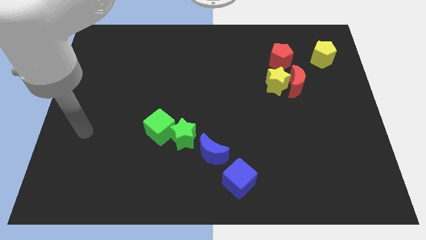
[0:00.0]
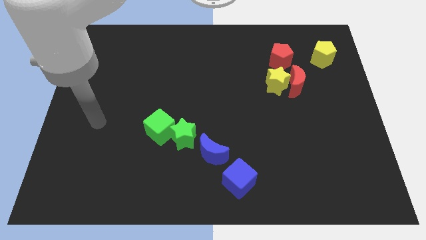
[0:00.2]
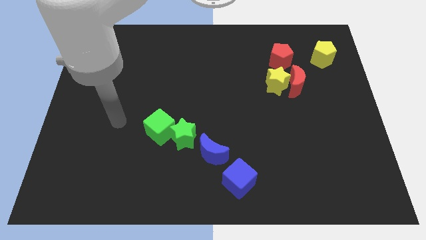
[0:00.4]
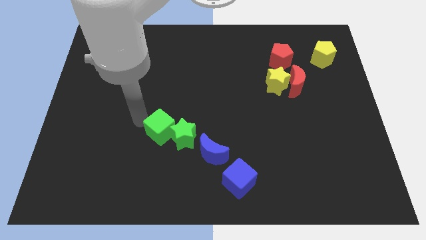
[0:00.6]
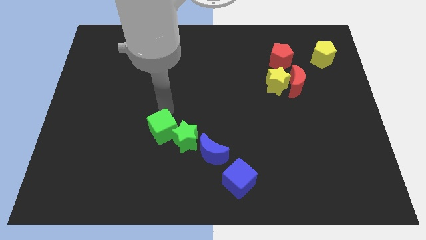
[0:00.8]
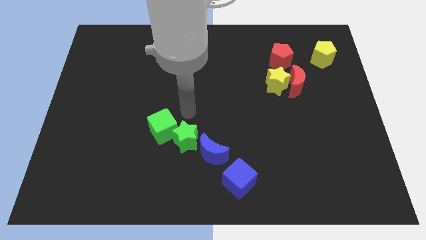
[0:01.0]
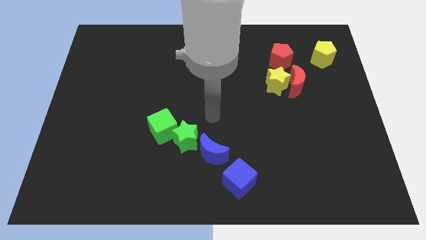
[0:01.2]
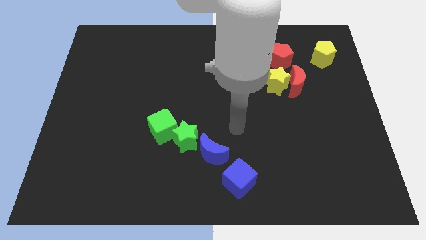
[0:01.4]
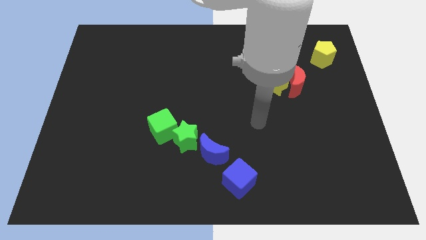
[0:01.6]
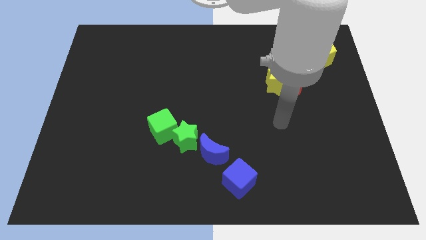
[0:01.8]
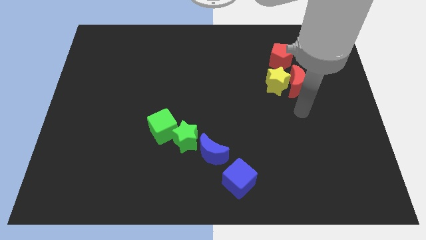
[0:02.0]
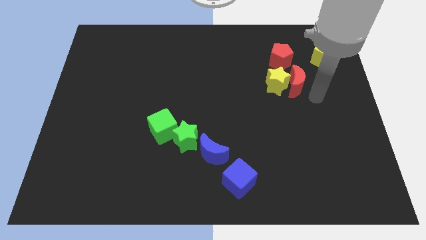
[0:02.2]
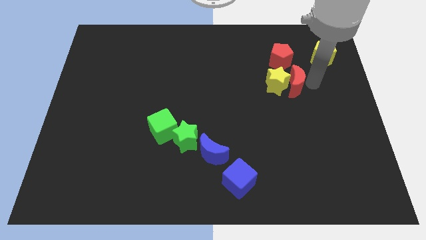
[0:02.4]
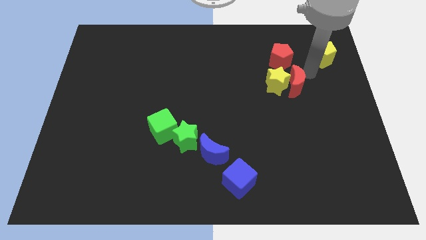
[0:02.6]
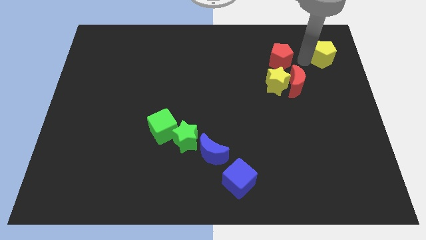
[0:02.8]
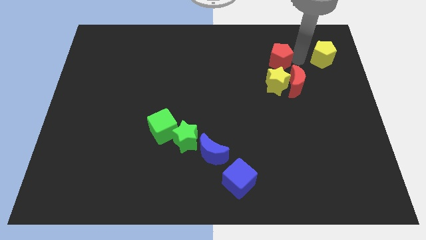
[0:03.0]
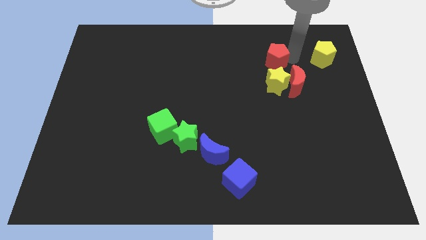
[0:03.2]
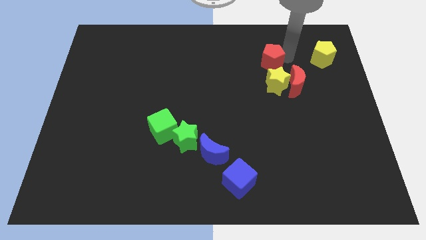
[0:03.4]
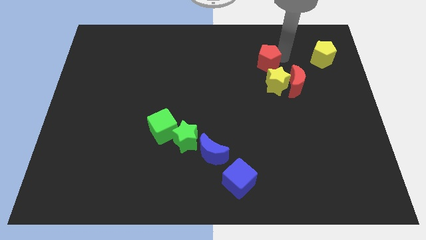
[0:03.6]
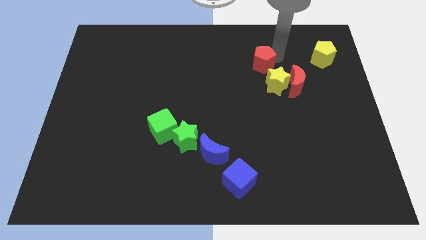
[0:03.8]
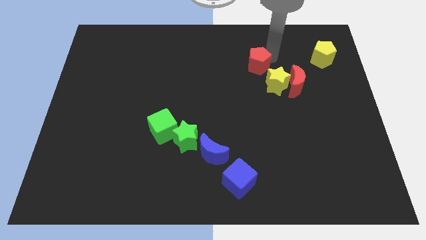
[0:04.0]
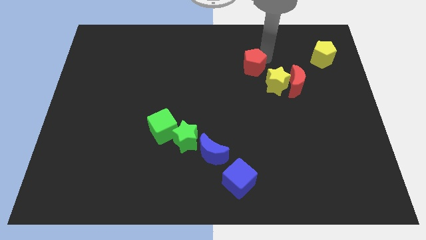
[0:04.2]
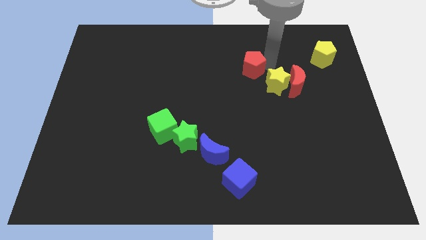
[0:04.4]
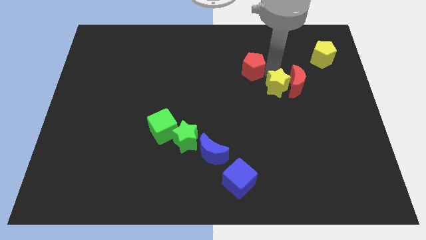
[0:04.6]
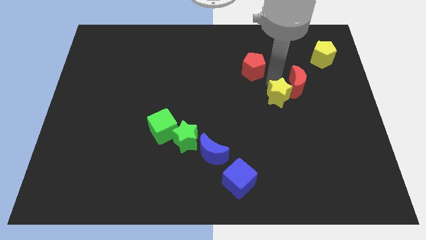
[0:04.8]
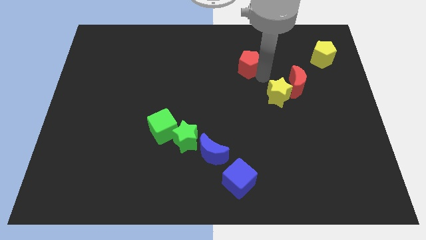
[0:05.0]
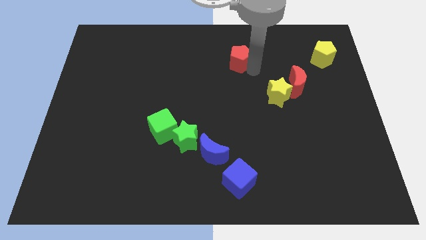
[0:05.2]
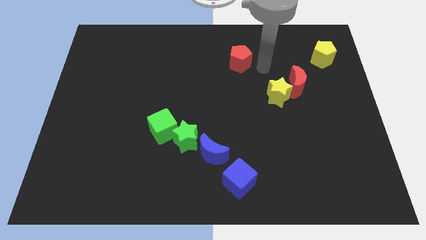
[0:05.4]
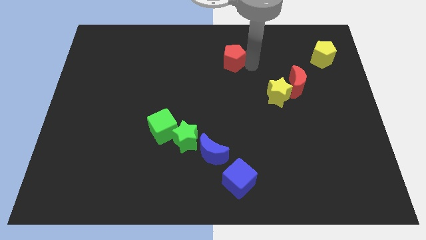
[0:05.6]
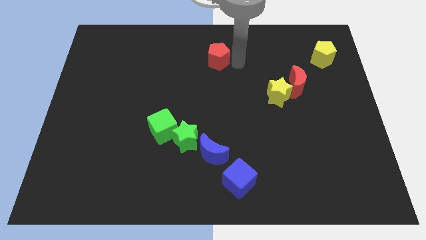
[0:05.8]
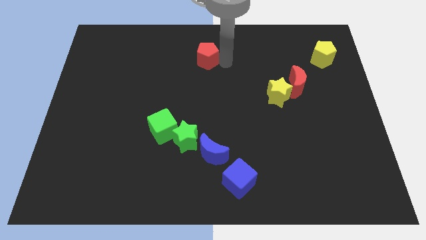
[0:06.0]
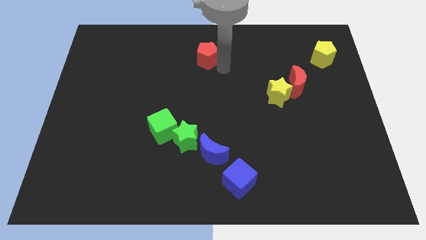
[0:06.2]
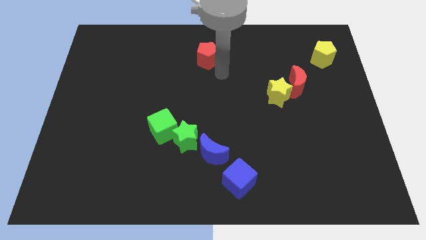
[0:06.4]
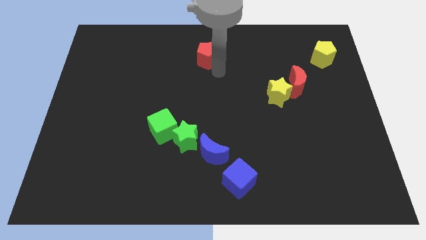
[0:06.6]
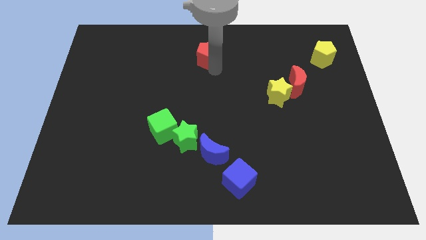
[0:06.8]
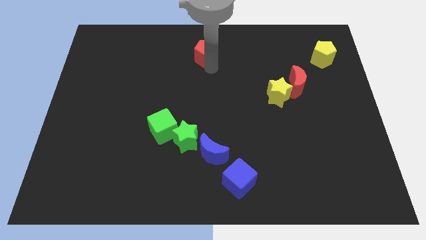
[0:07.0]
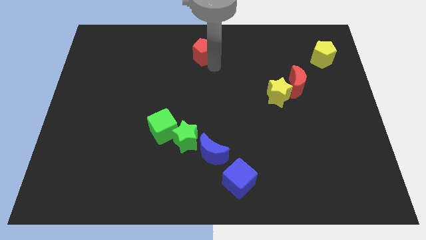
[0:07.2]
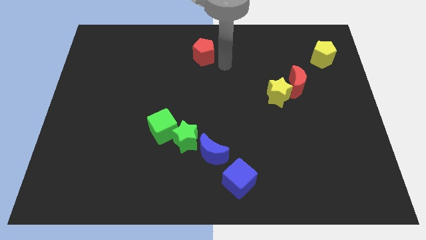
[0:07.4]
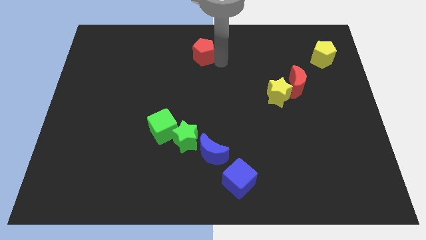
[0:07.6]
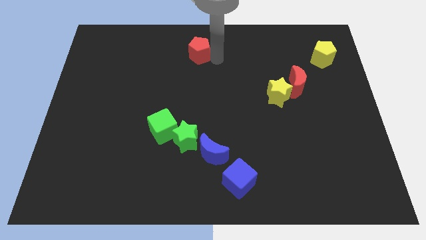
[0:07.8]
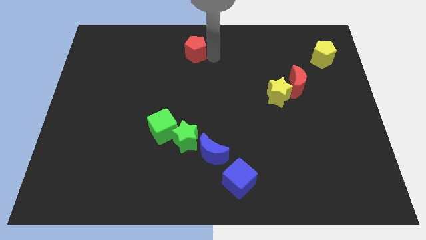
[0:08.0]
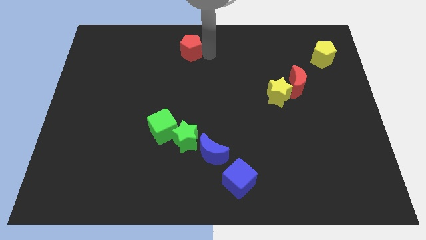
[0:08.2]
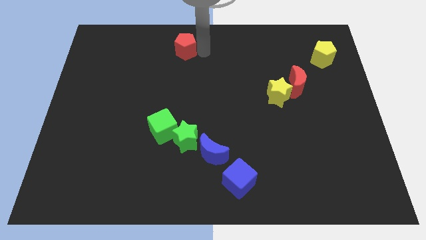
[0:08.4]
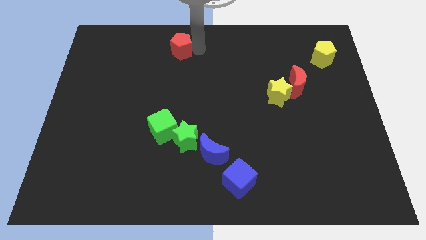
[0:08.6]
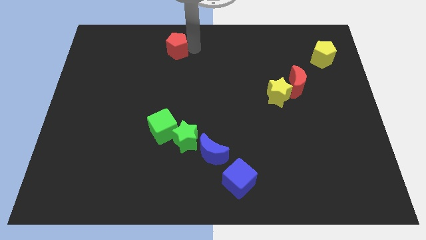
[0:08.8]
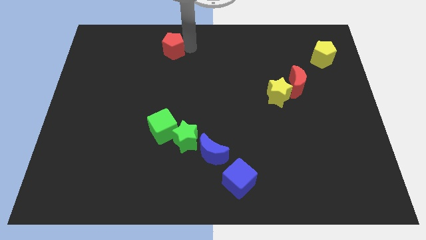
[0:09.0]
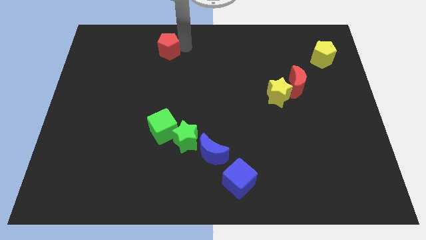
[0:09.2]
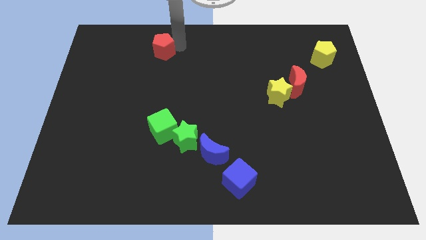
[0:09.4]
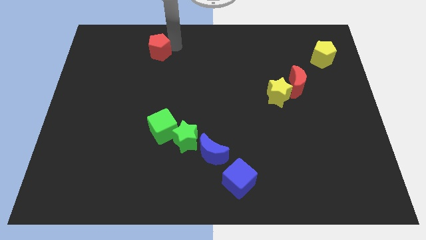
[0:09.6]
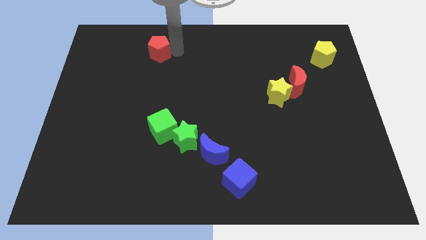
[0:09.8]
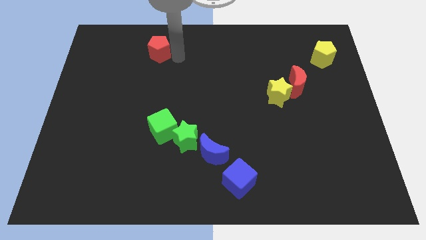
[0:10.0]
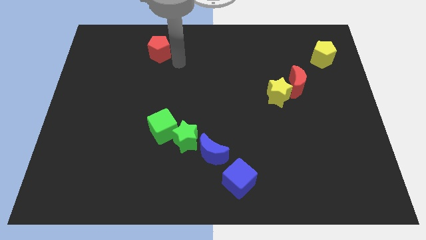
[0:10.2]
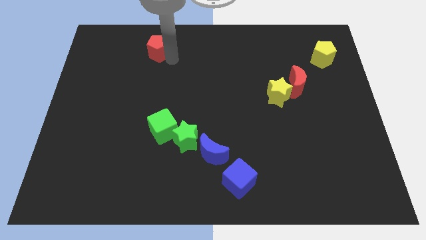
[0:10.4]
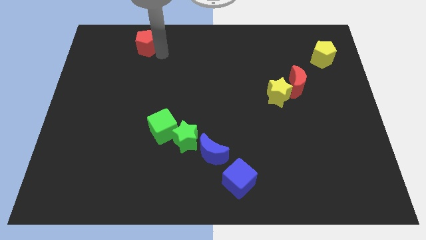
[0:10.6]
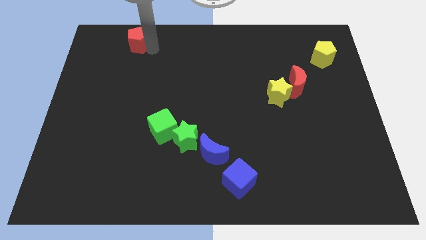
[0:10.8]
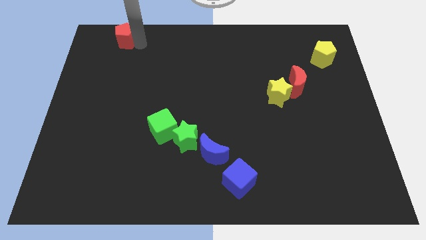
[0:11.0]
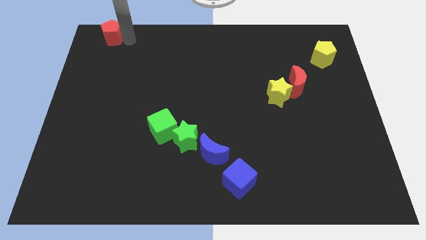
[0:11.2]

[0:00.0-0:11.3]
push the red pentagon to the upper left corner

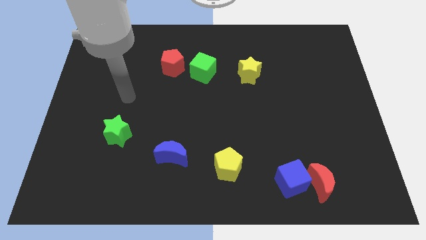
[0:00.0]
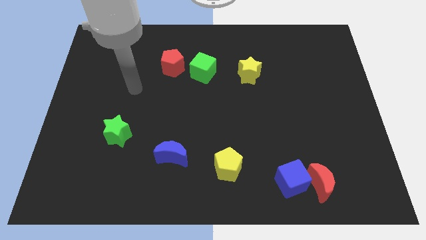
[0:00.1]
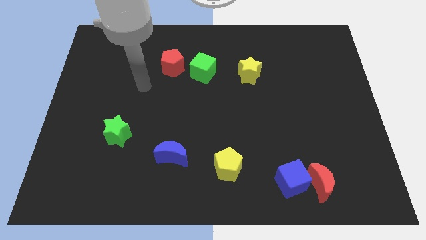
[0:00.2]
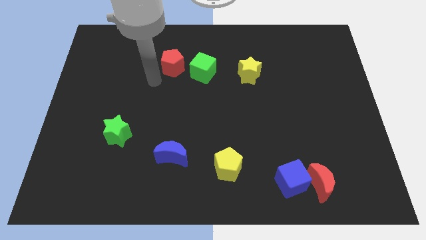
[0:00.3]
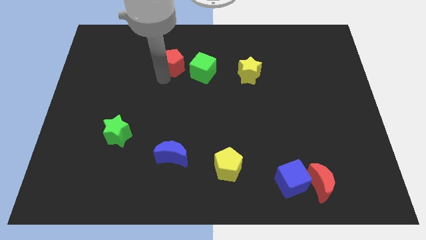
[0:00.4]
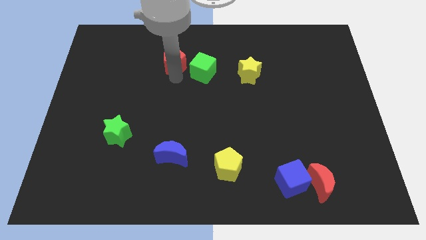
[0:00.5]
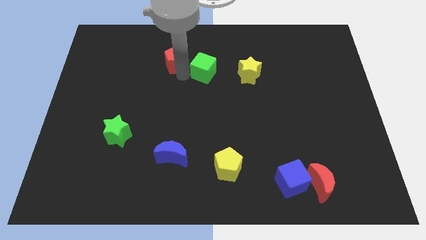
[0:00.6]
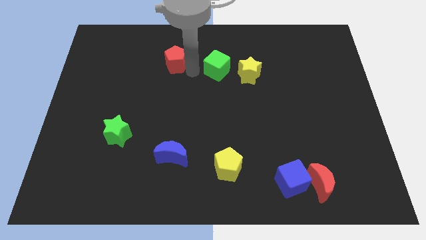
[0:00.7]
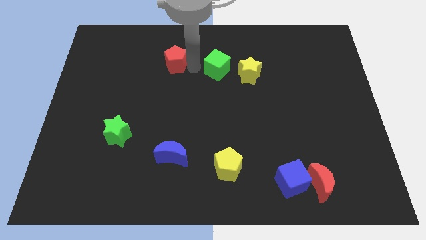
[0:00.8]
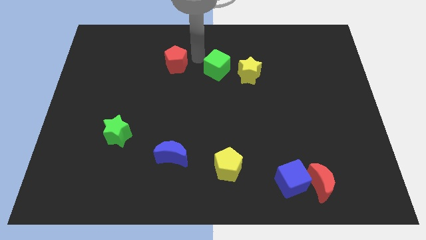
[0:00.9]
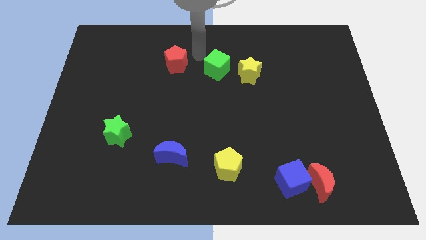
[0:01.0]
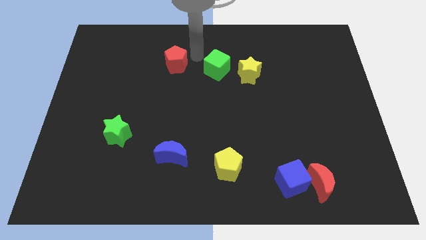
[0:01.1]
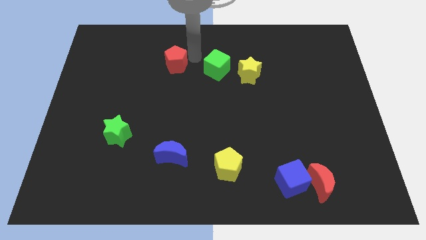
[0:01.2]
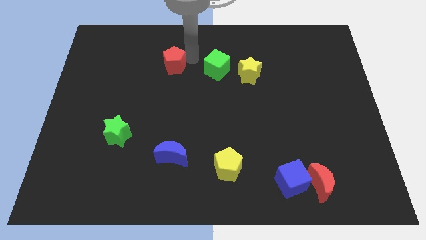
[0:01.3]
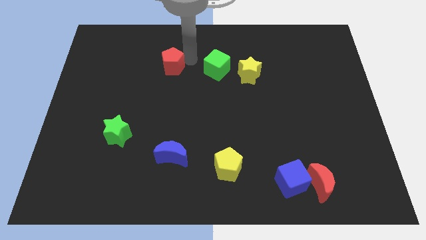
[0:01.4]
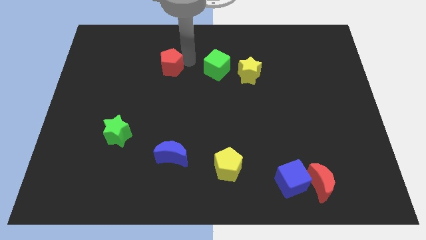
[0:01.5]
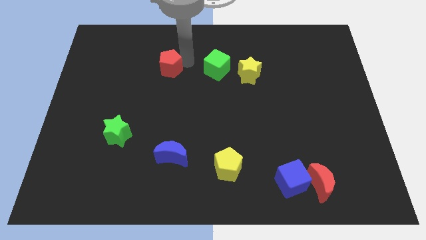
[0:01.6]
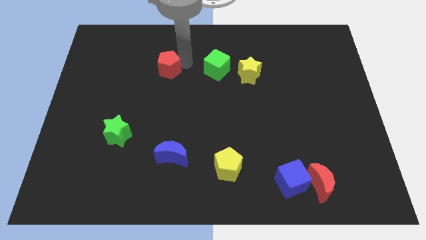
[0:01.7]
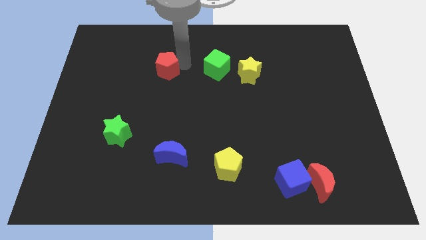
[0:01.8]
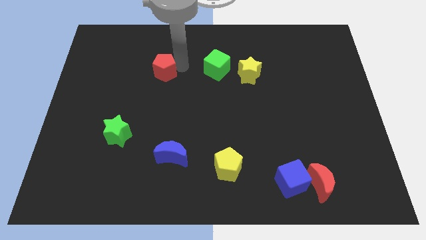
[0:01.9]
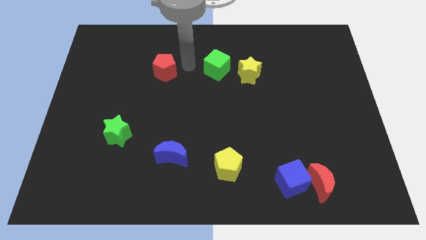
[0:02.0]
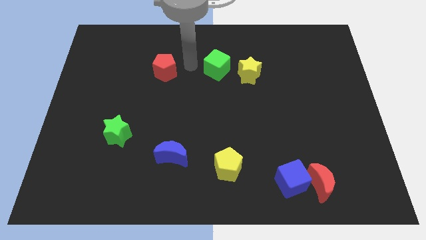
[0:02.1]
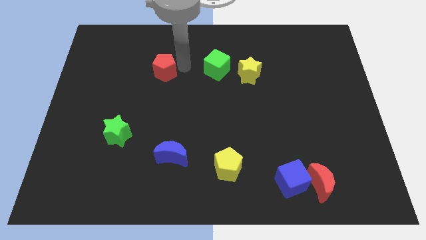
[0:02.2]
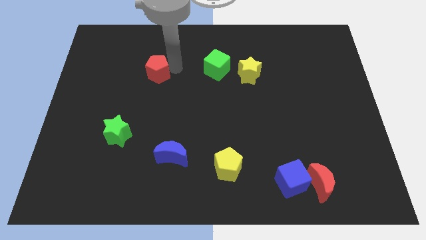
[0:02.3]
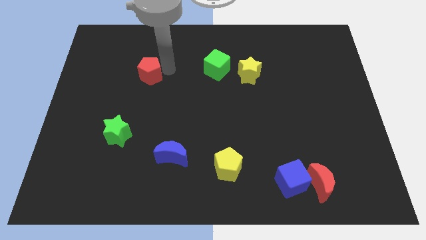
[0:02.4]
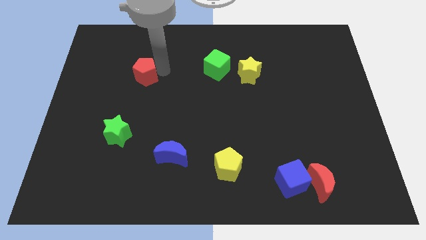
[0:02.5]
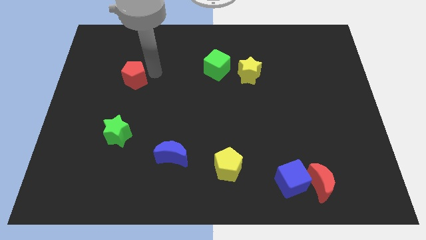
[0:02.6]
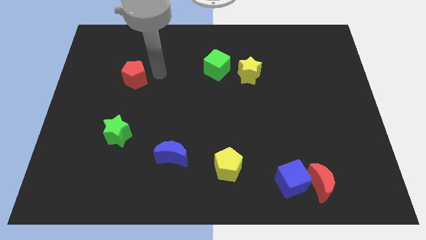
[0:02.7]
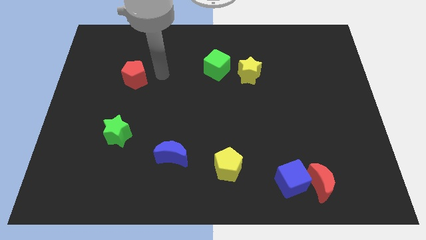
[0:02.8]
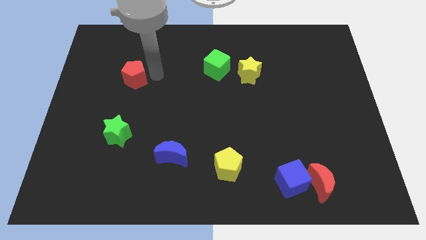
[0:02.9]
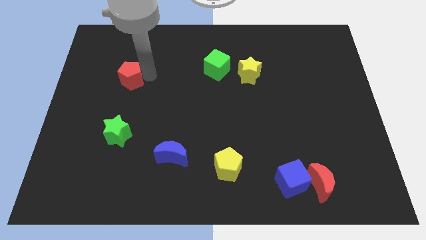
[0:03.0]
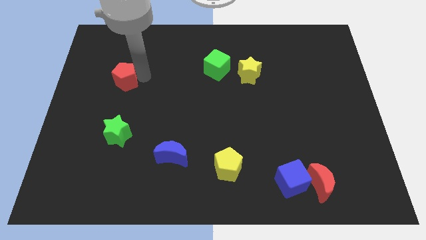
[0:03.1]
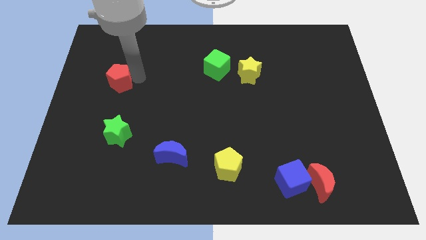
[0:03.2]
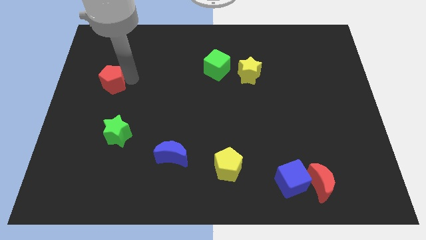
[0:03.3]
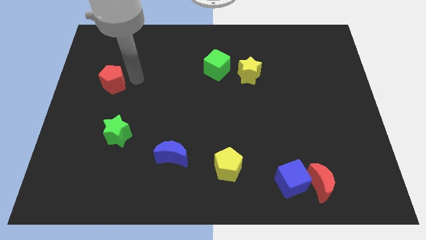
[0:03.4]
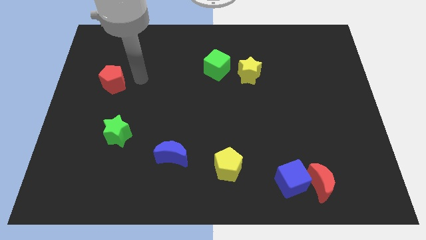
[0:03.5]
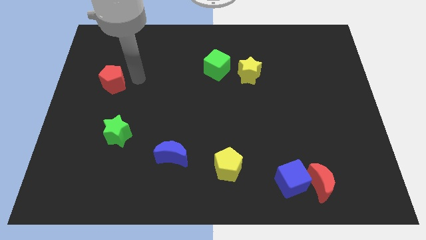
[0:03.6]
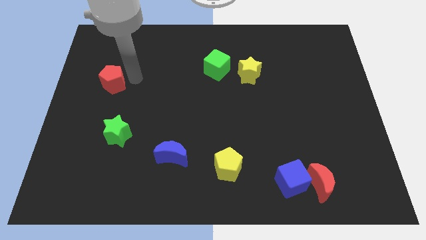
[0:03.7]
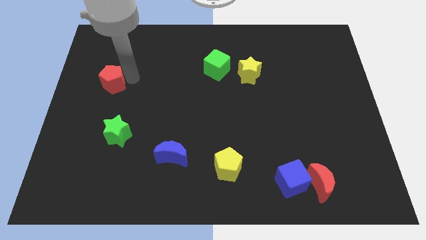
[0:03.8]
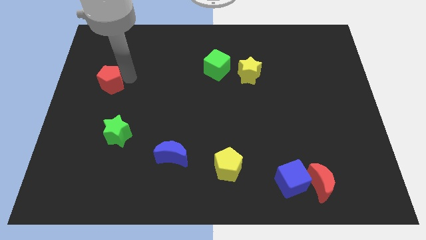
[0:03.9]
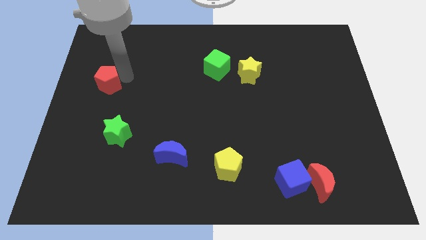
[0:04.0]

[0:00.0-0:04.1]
slide the red pentagon to the left side
